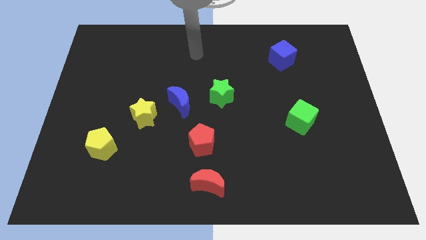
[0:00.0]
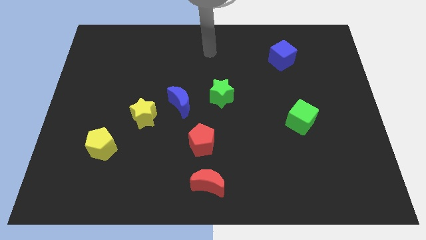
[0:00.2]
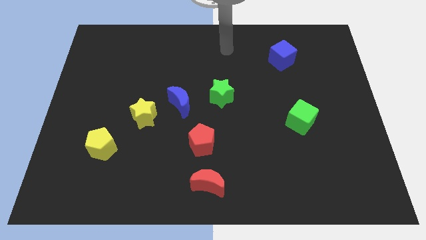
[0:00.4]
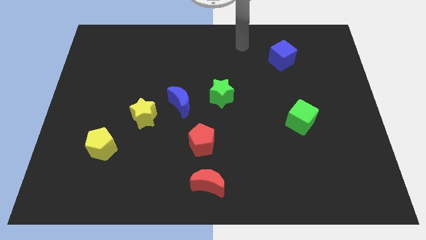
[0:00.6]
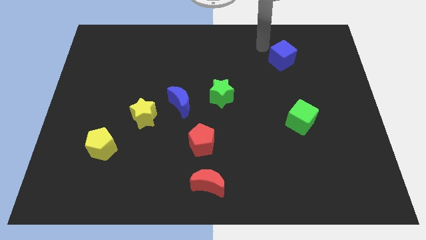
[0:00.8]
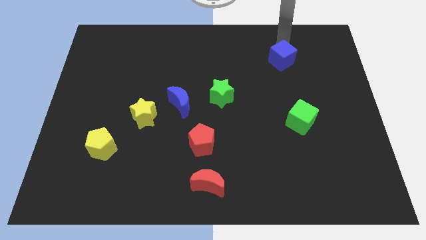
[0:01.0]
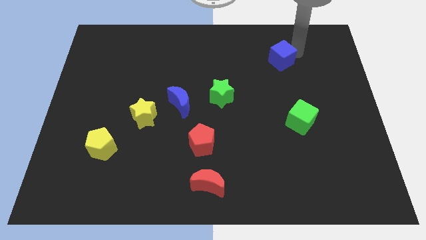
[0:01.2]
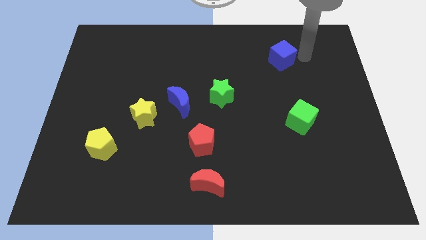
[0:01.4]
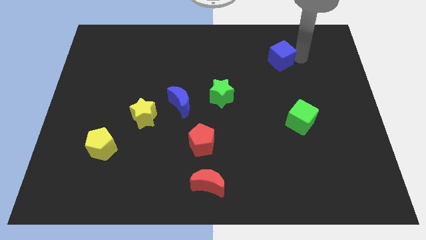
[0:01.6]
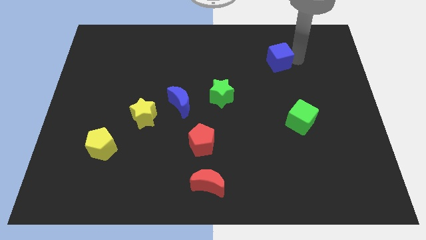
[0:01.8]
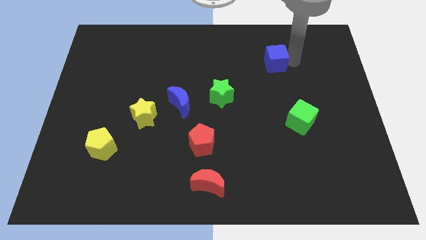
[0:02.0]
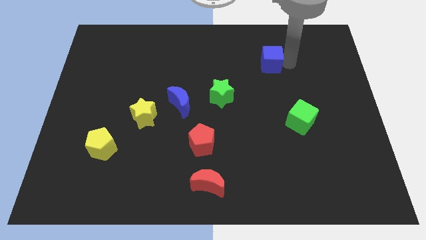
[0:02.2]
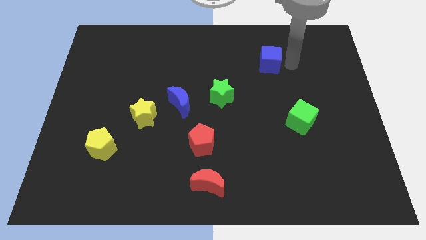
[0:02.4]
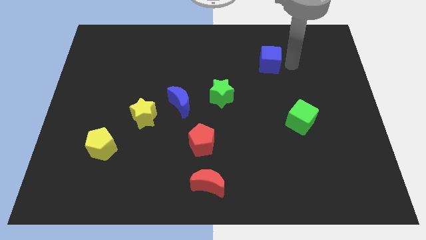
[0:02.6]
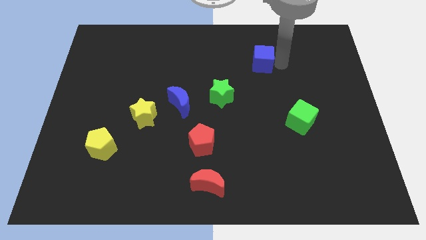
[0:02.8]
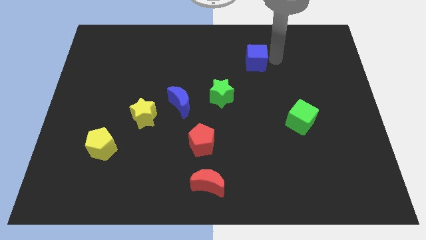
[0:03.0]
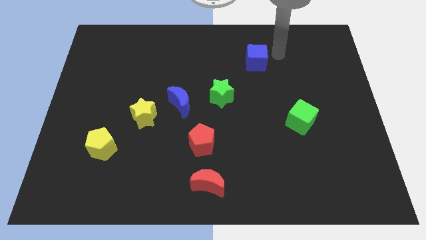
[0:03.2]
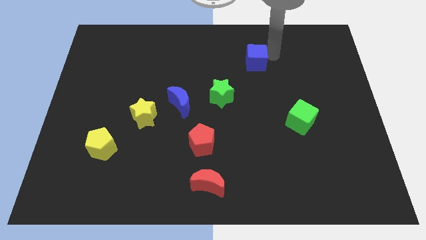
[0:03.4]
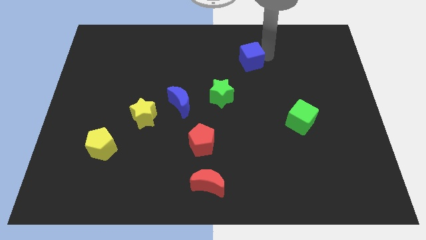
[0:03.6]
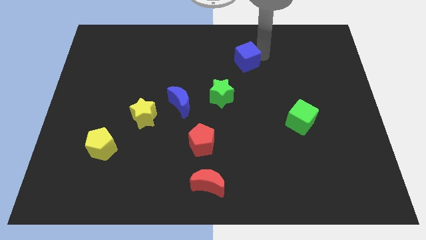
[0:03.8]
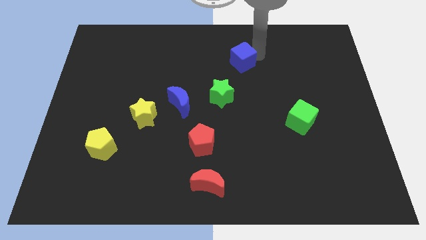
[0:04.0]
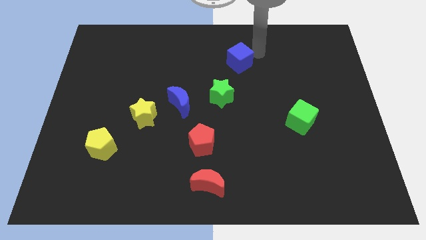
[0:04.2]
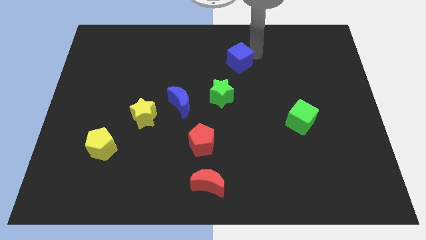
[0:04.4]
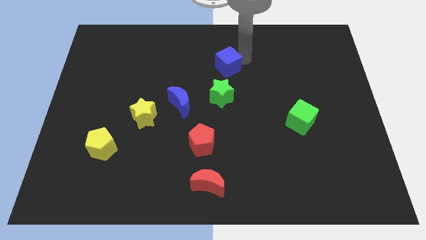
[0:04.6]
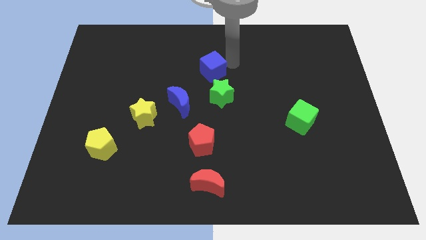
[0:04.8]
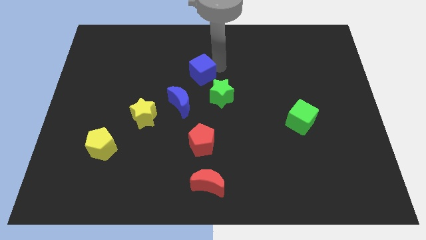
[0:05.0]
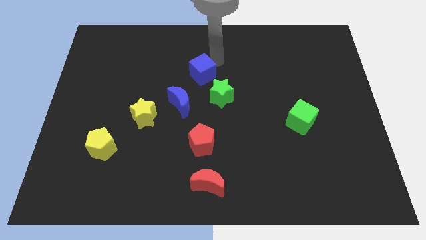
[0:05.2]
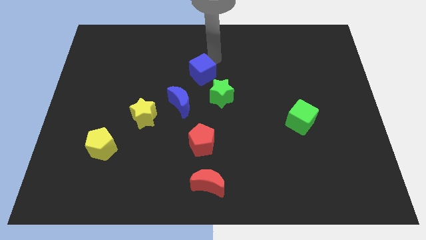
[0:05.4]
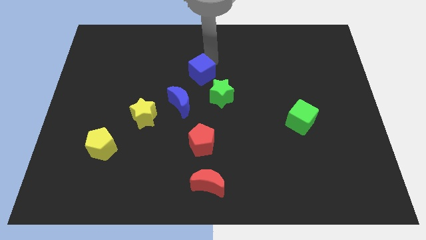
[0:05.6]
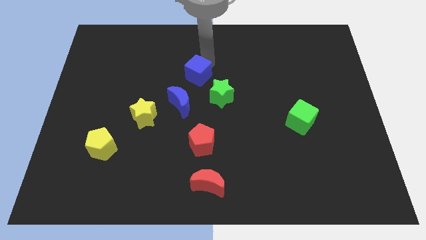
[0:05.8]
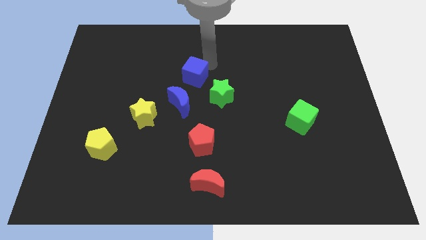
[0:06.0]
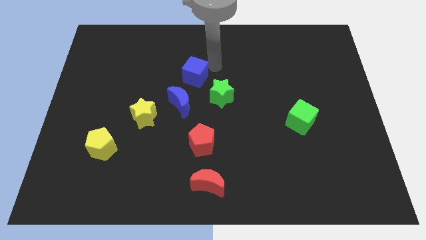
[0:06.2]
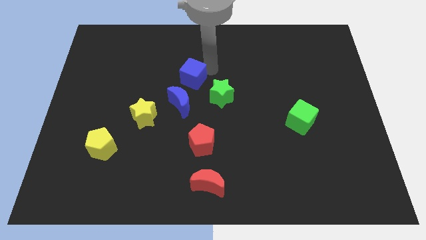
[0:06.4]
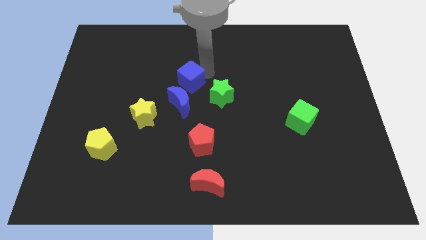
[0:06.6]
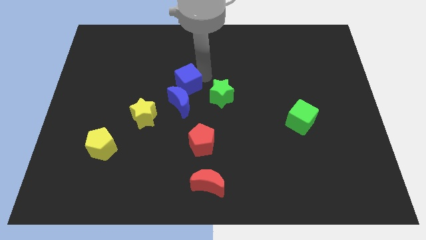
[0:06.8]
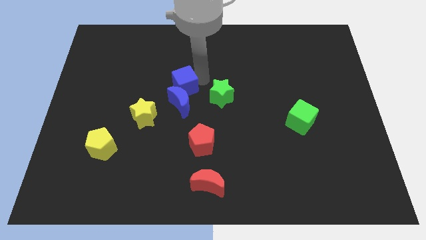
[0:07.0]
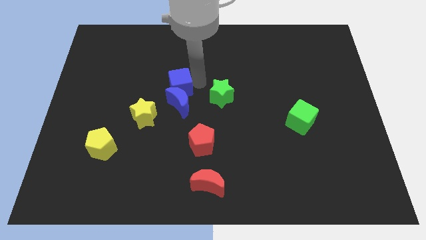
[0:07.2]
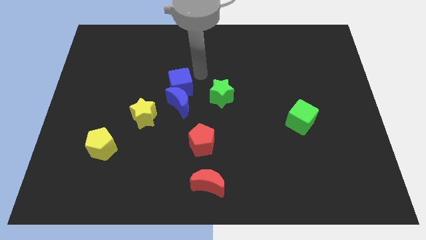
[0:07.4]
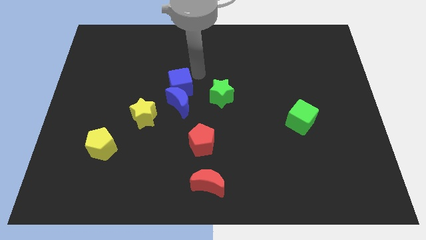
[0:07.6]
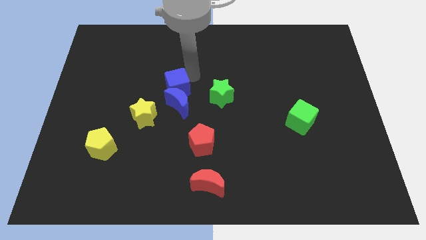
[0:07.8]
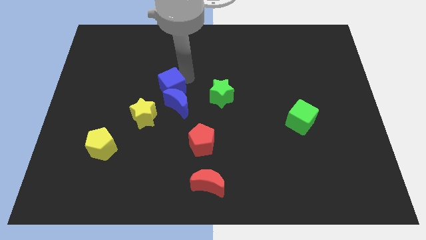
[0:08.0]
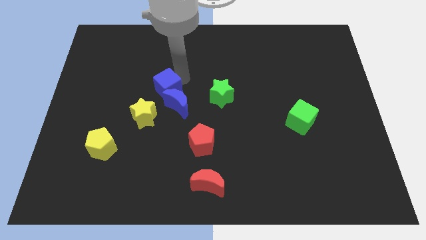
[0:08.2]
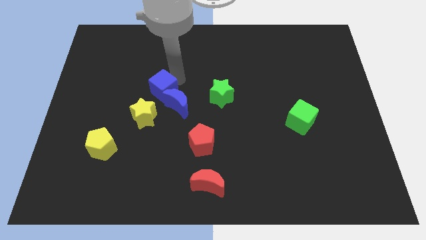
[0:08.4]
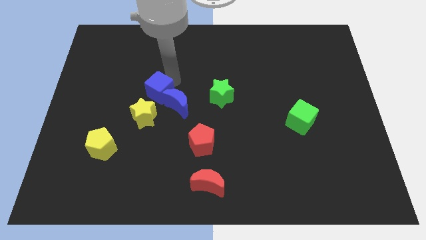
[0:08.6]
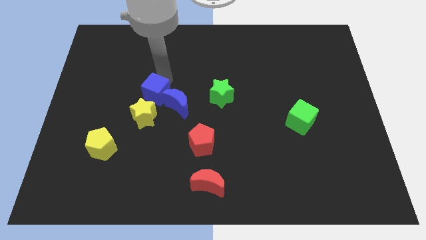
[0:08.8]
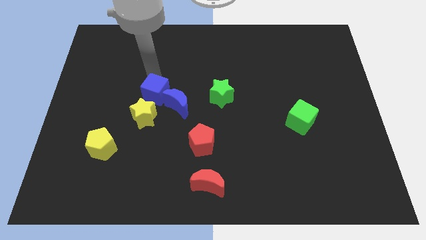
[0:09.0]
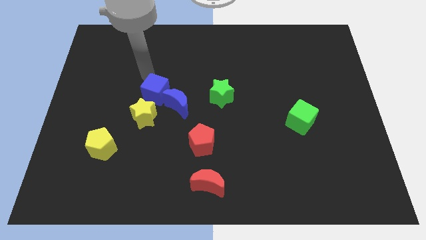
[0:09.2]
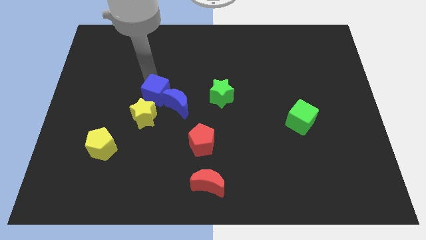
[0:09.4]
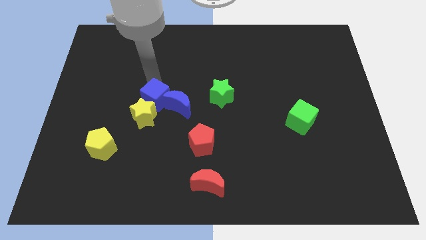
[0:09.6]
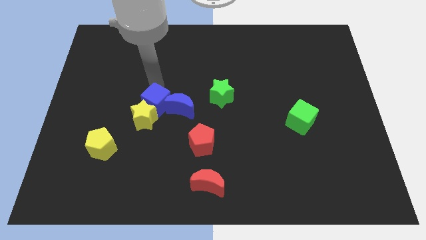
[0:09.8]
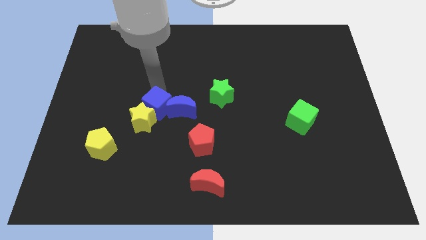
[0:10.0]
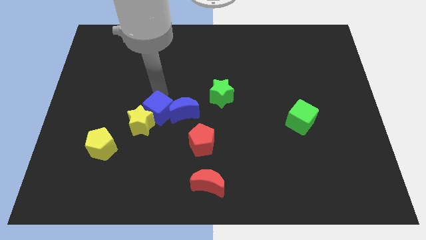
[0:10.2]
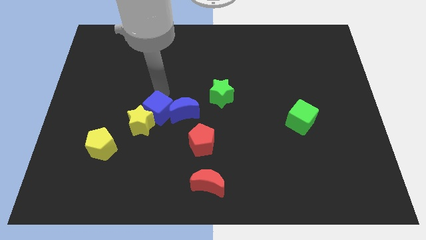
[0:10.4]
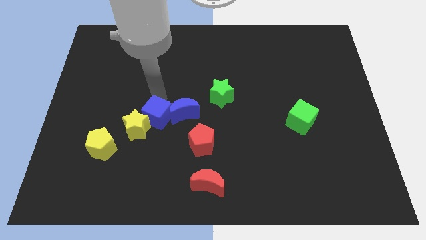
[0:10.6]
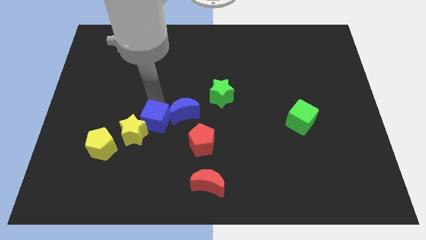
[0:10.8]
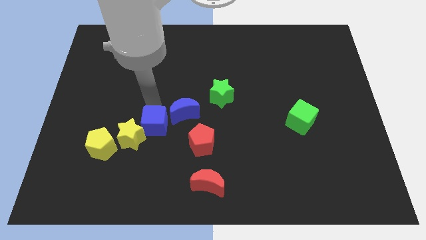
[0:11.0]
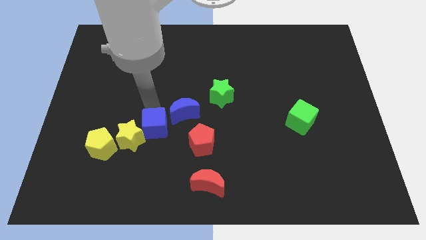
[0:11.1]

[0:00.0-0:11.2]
move the blue cube just left of the red pentagon
